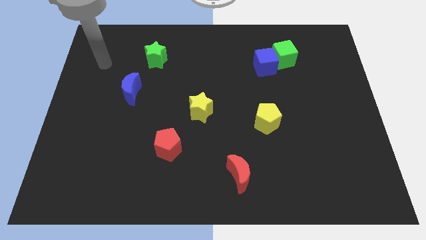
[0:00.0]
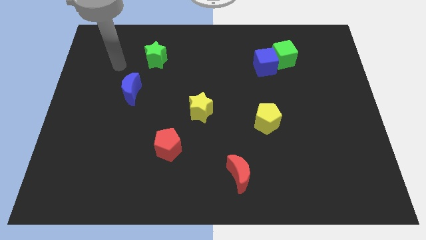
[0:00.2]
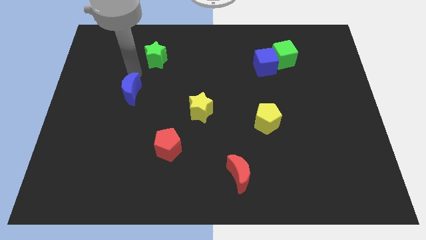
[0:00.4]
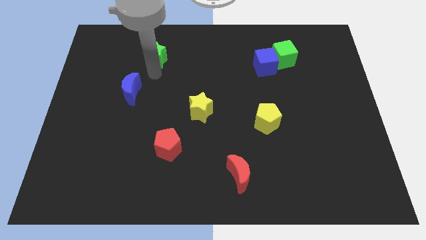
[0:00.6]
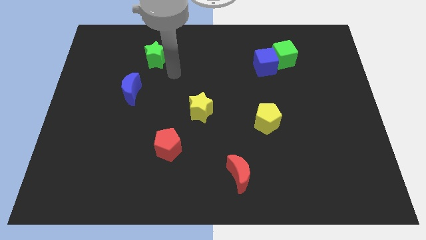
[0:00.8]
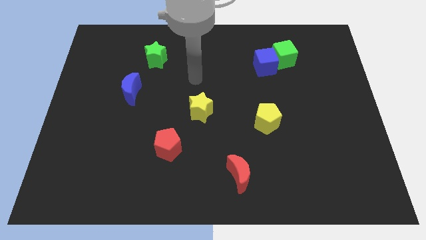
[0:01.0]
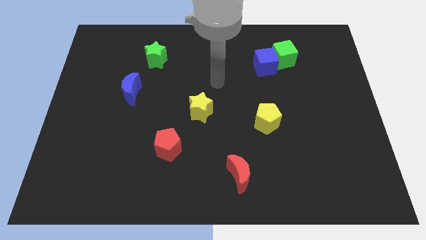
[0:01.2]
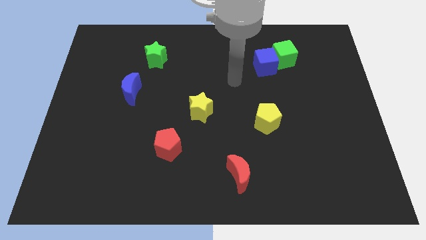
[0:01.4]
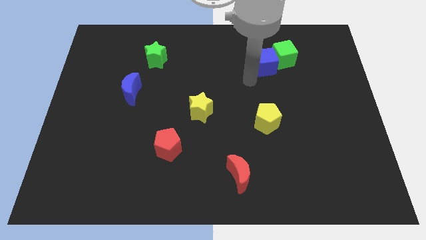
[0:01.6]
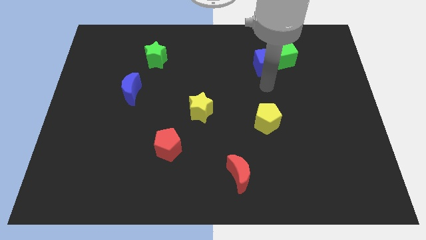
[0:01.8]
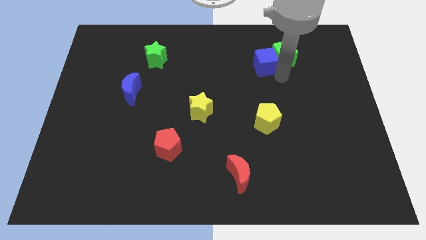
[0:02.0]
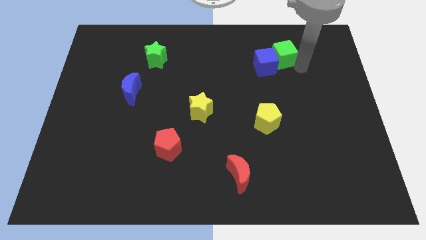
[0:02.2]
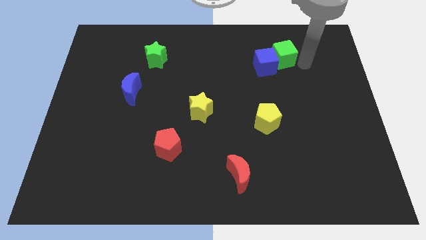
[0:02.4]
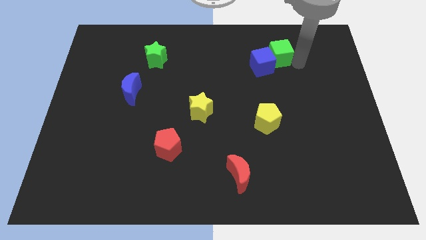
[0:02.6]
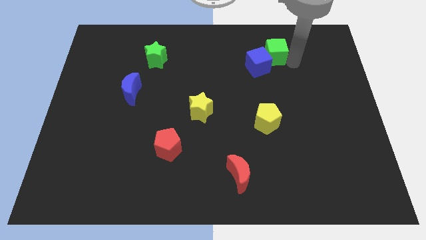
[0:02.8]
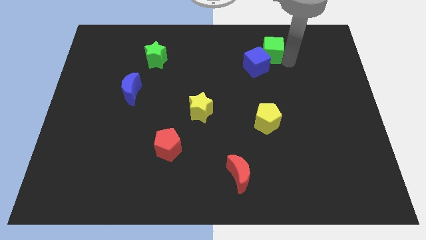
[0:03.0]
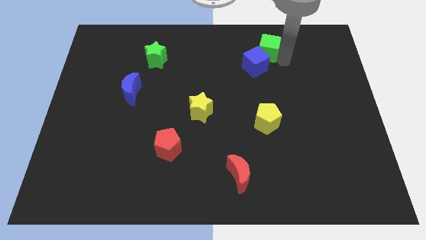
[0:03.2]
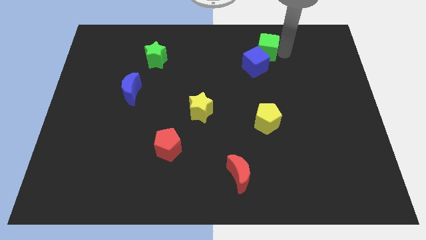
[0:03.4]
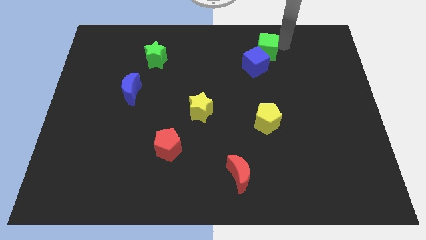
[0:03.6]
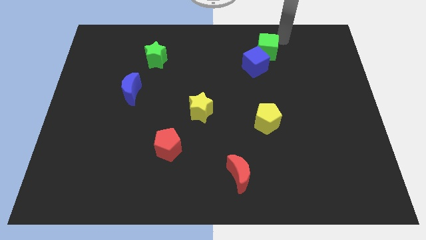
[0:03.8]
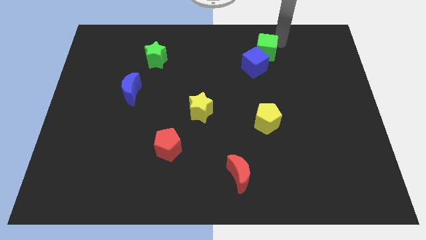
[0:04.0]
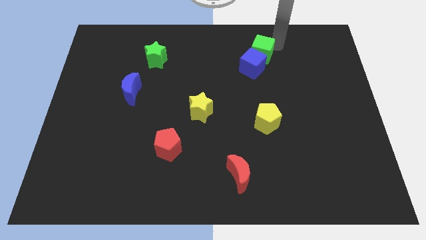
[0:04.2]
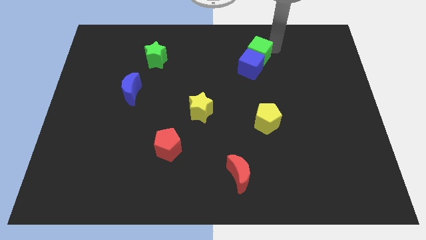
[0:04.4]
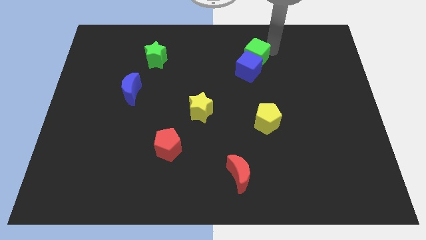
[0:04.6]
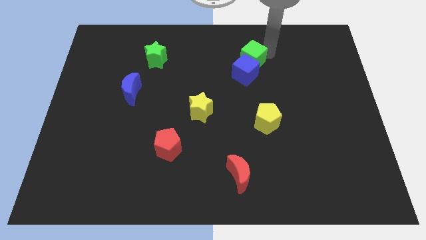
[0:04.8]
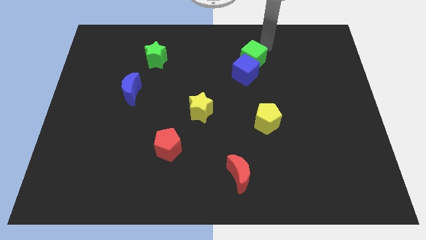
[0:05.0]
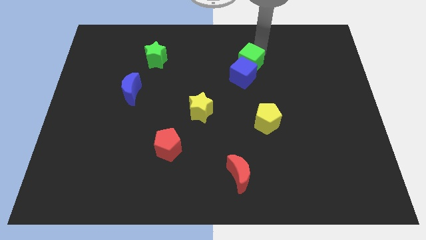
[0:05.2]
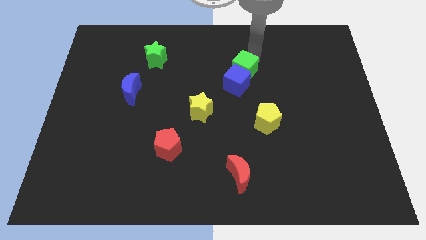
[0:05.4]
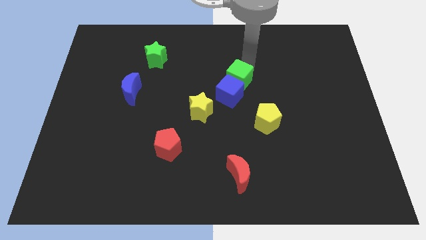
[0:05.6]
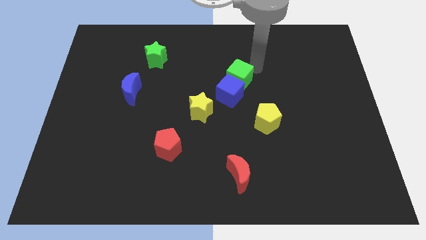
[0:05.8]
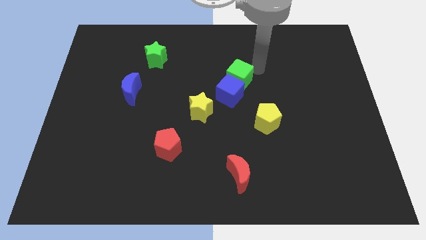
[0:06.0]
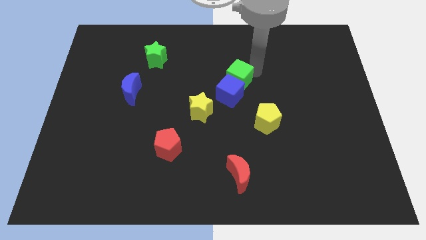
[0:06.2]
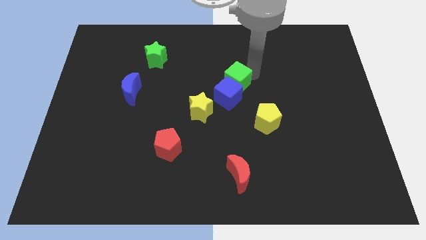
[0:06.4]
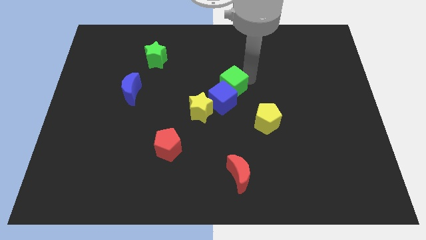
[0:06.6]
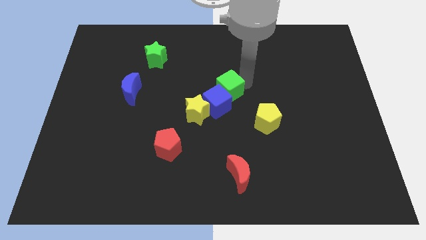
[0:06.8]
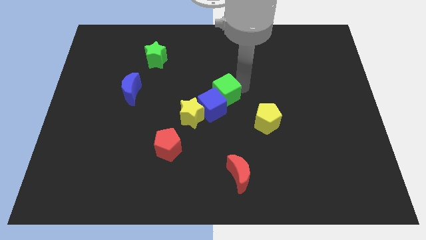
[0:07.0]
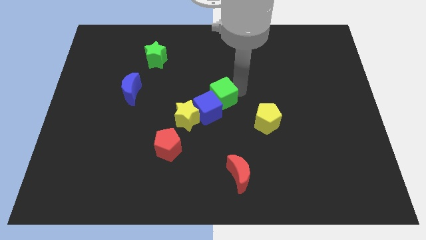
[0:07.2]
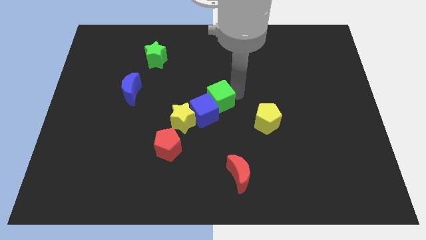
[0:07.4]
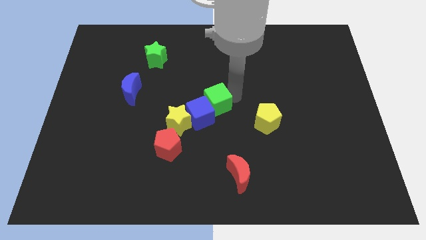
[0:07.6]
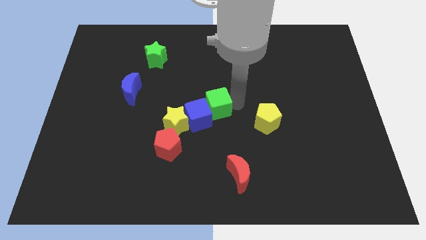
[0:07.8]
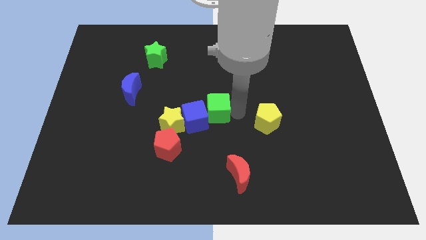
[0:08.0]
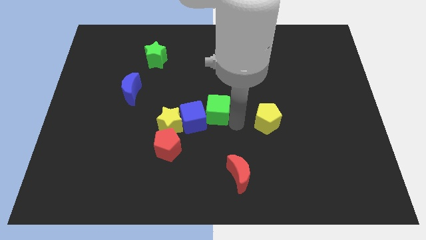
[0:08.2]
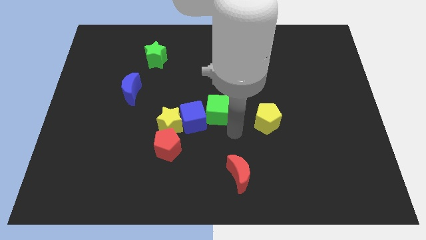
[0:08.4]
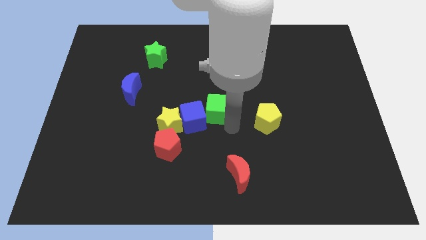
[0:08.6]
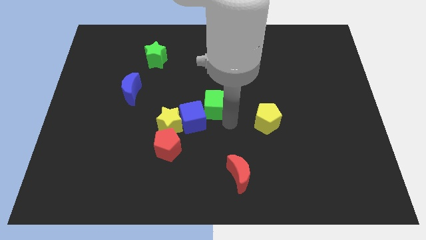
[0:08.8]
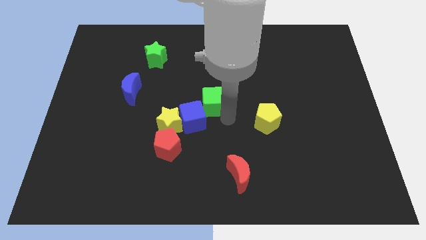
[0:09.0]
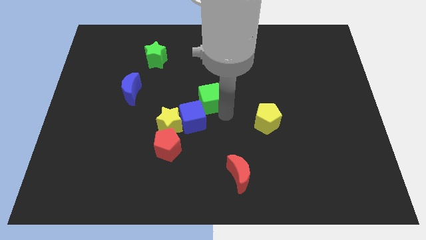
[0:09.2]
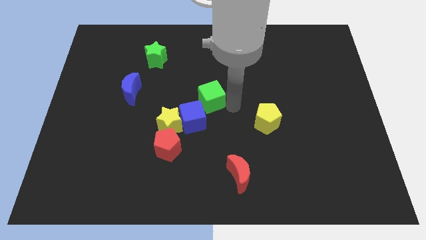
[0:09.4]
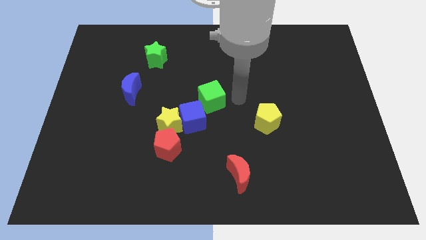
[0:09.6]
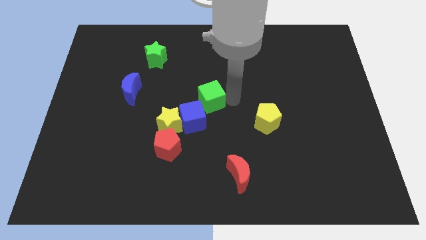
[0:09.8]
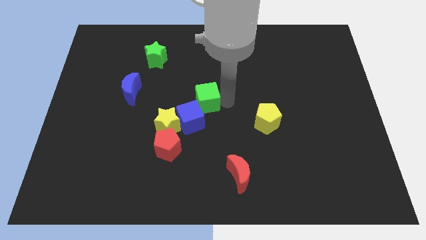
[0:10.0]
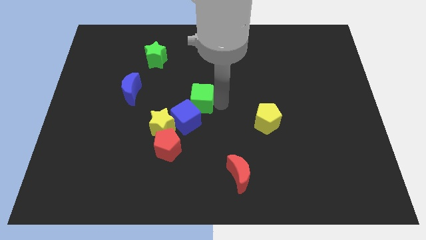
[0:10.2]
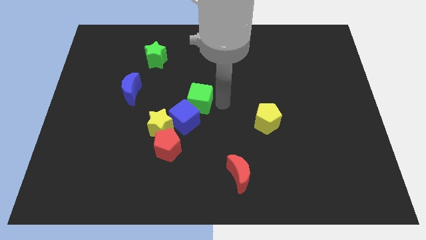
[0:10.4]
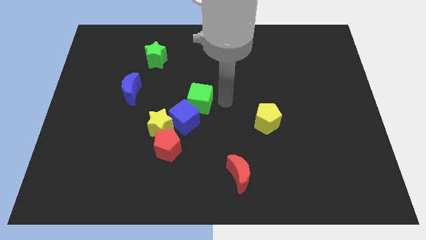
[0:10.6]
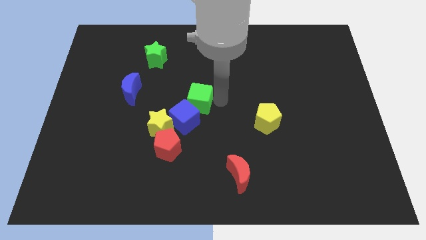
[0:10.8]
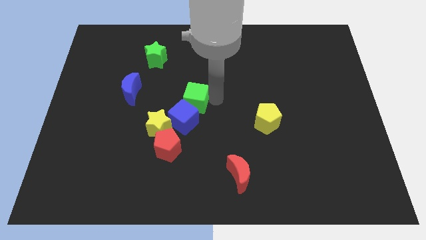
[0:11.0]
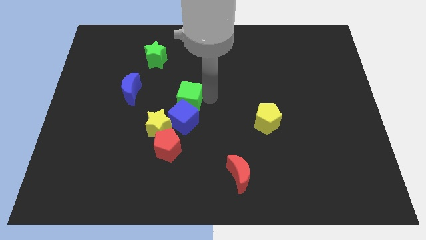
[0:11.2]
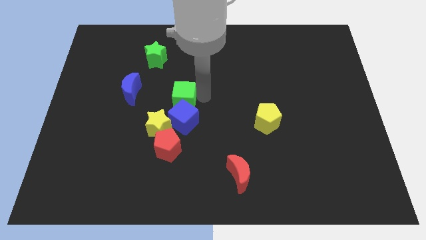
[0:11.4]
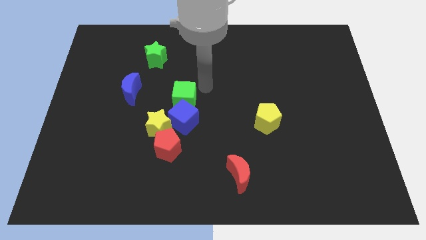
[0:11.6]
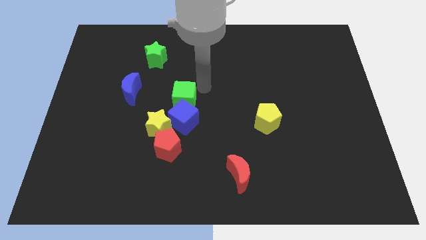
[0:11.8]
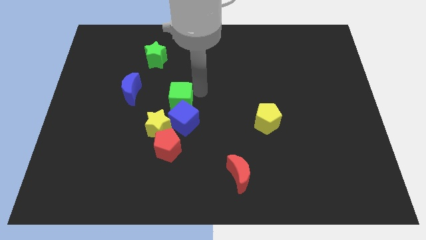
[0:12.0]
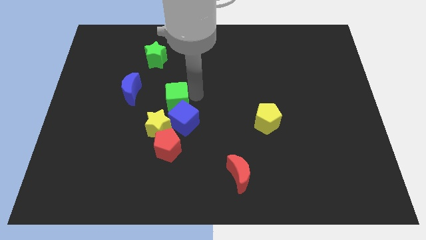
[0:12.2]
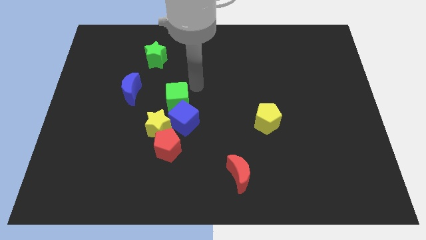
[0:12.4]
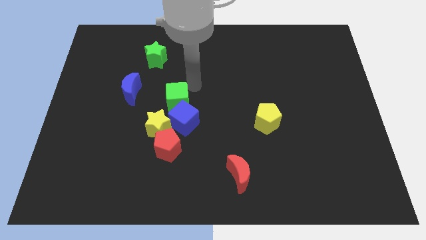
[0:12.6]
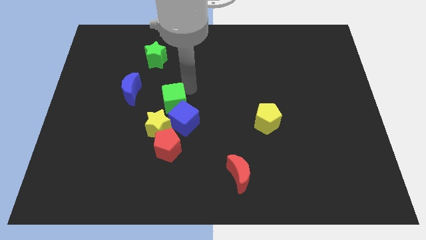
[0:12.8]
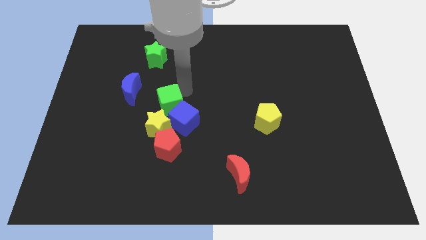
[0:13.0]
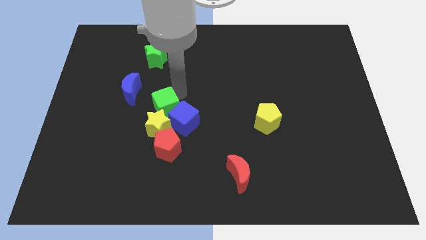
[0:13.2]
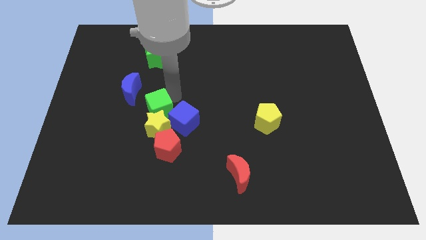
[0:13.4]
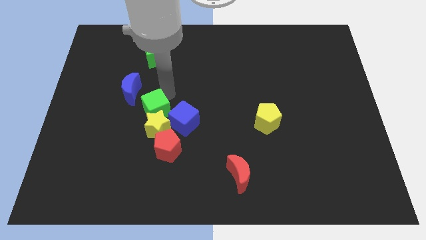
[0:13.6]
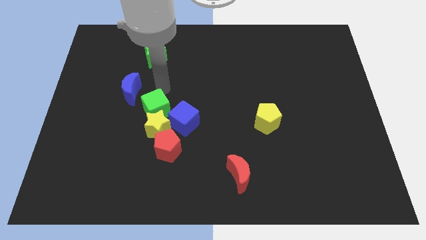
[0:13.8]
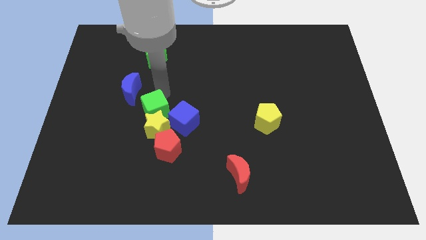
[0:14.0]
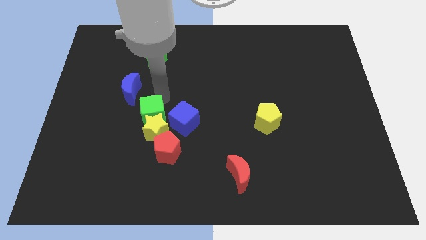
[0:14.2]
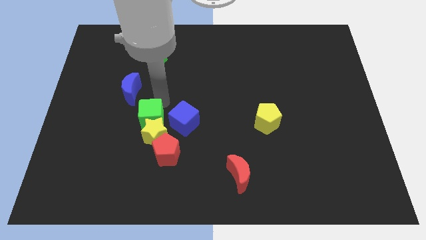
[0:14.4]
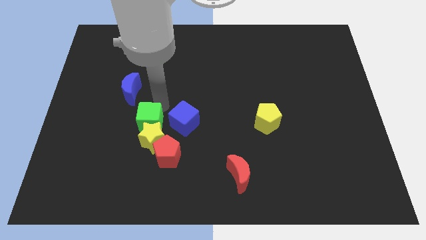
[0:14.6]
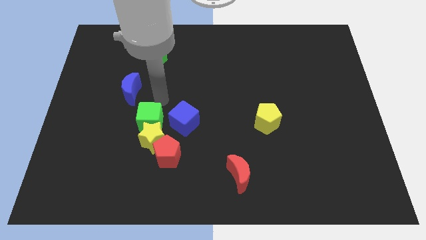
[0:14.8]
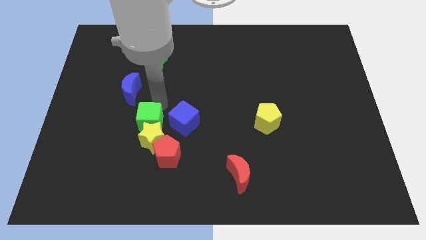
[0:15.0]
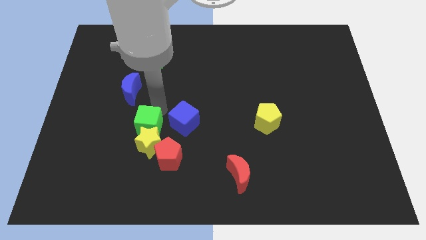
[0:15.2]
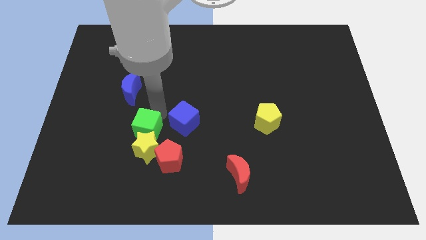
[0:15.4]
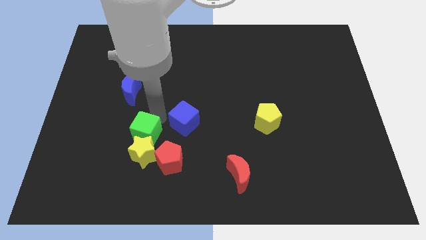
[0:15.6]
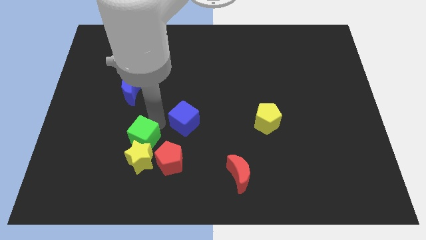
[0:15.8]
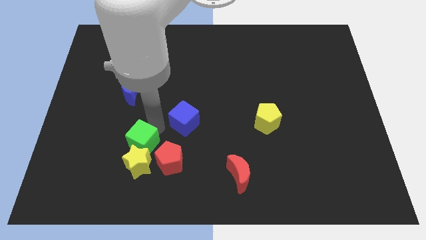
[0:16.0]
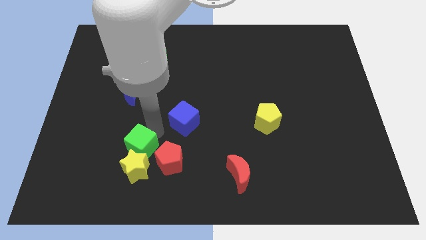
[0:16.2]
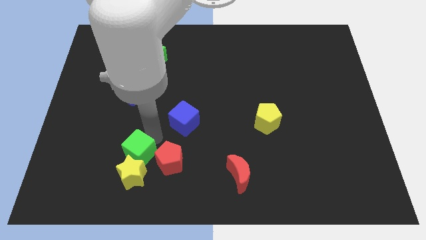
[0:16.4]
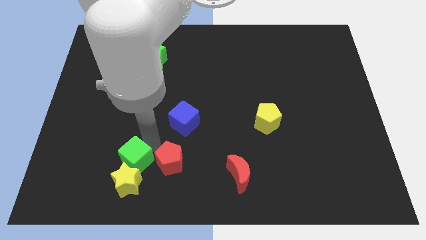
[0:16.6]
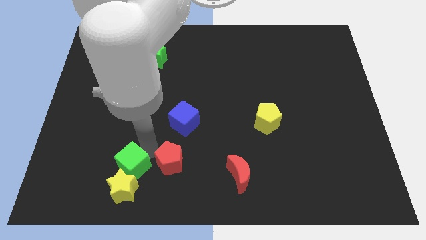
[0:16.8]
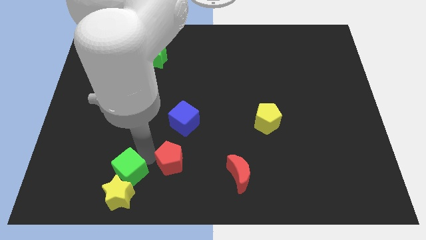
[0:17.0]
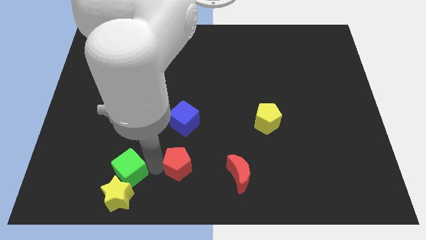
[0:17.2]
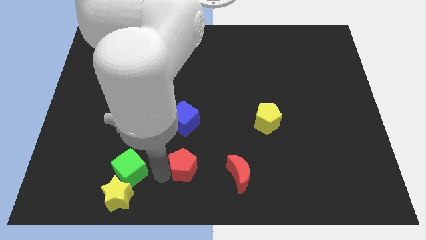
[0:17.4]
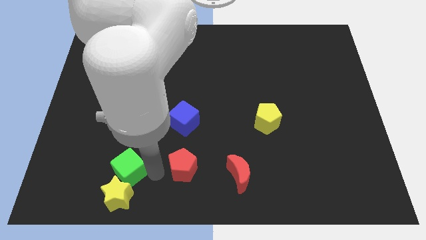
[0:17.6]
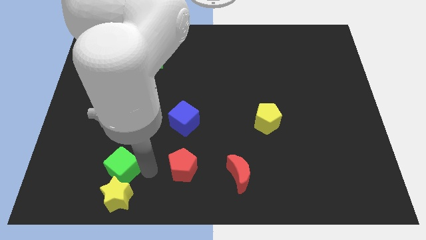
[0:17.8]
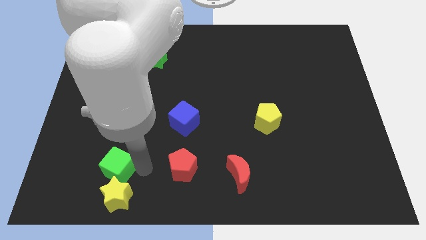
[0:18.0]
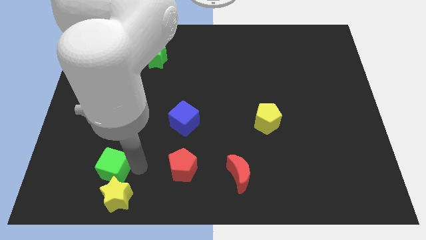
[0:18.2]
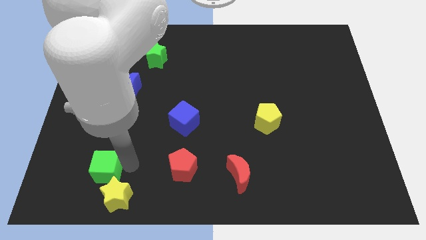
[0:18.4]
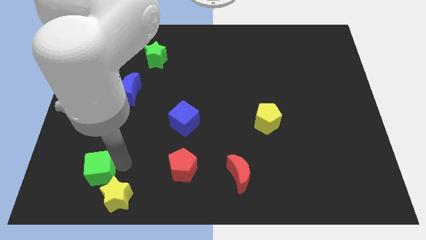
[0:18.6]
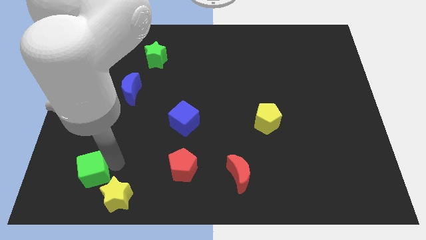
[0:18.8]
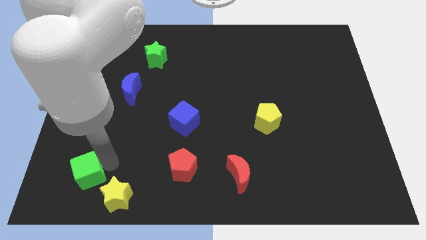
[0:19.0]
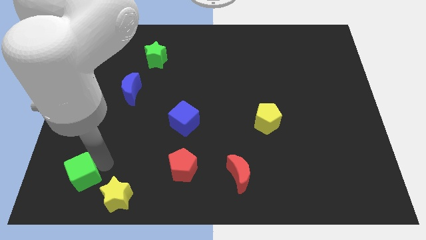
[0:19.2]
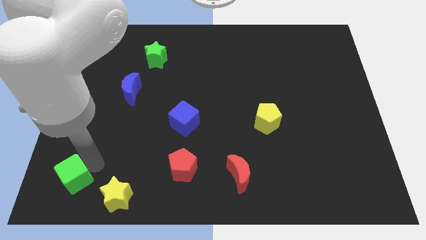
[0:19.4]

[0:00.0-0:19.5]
slide the green cube to the bottom left corner
